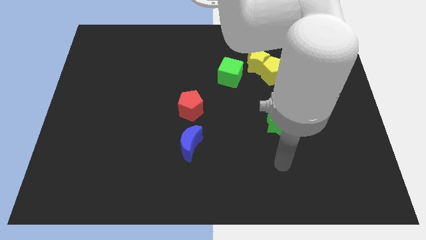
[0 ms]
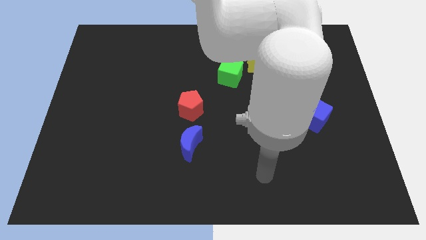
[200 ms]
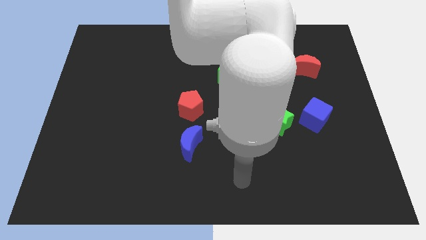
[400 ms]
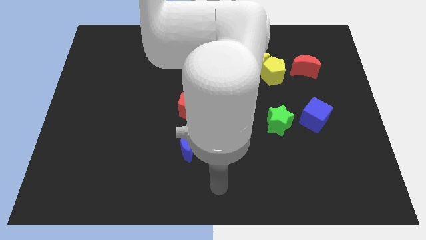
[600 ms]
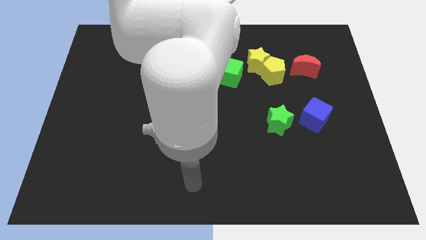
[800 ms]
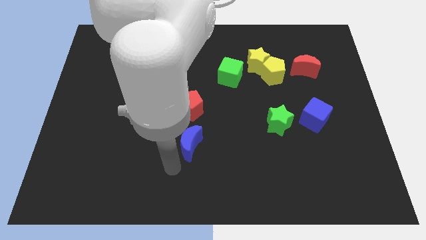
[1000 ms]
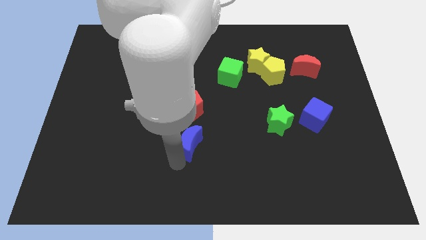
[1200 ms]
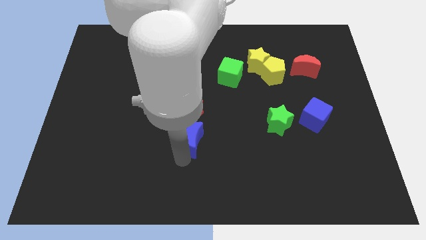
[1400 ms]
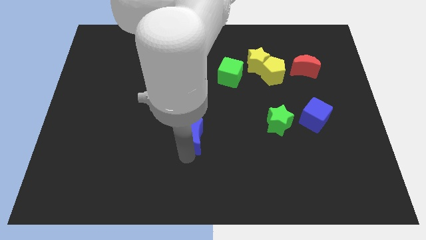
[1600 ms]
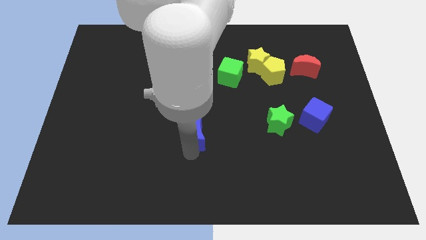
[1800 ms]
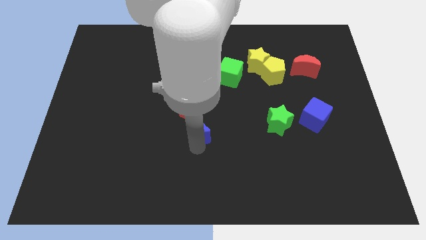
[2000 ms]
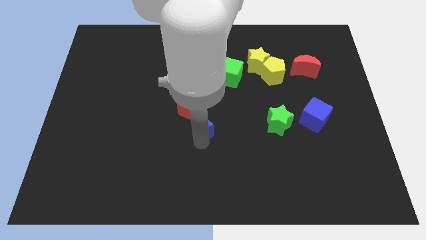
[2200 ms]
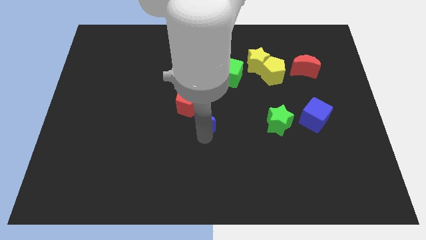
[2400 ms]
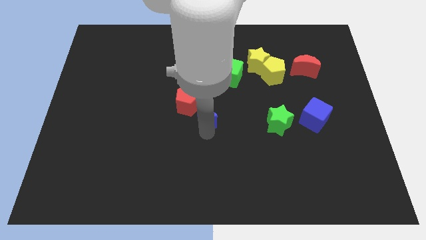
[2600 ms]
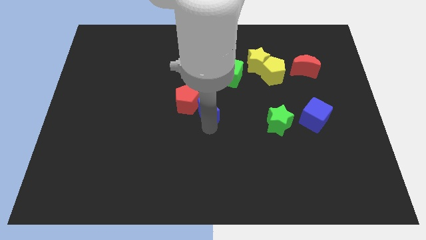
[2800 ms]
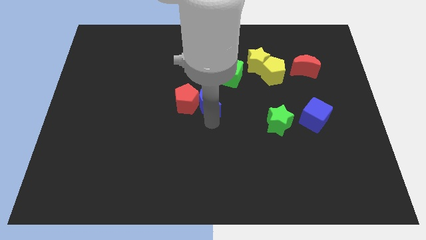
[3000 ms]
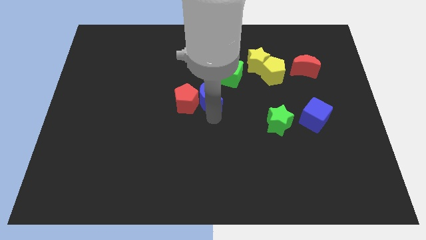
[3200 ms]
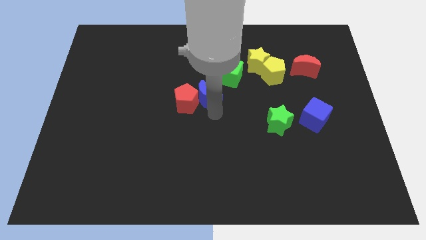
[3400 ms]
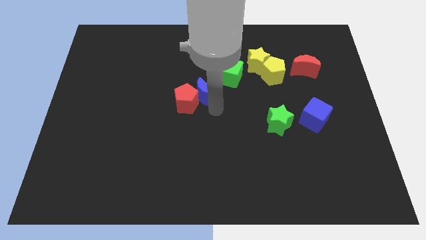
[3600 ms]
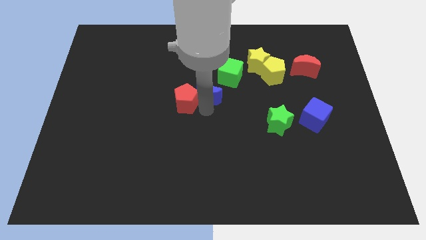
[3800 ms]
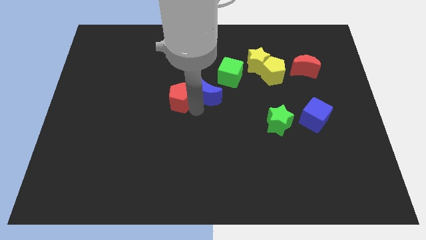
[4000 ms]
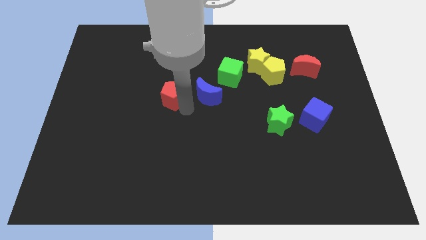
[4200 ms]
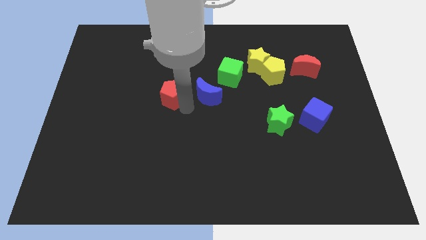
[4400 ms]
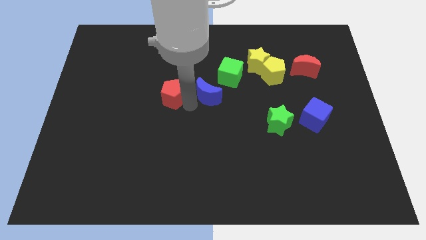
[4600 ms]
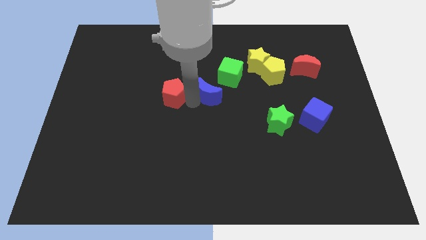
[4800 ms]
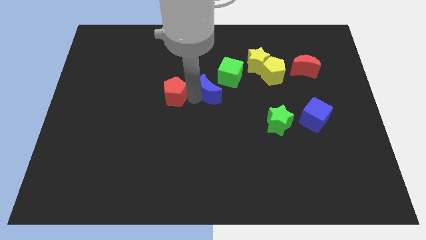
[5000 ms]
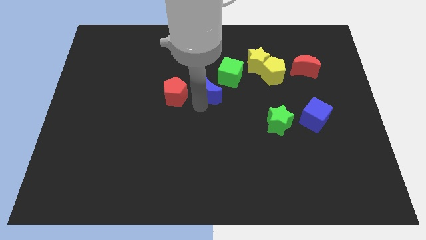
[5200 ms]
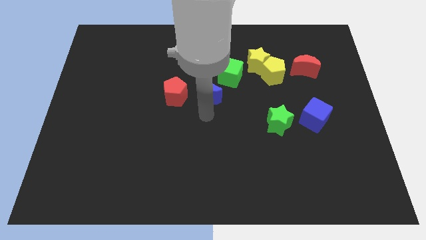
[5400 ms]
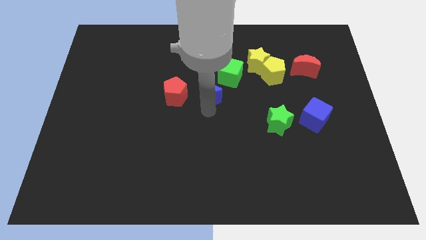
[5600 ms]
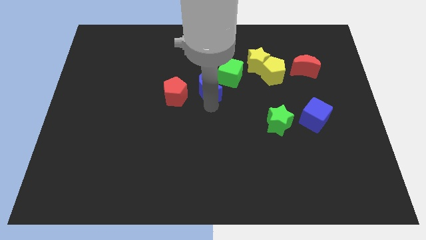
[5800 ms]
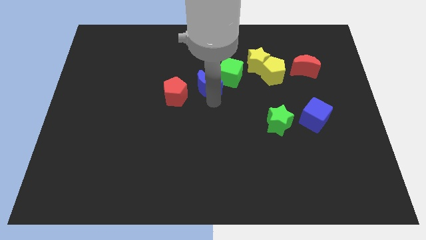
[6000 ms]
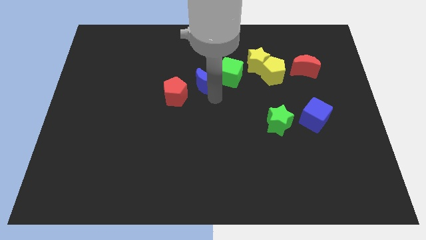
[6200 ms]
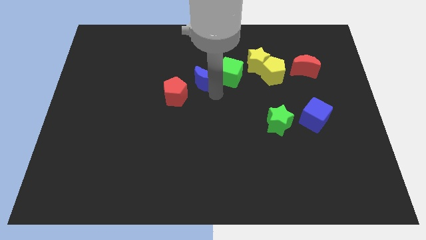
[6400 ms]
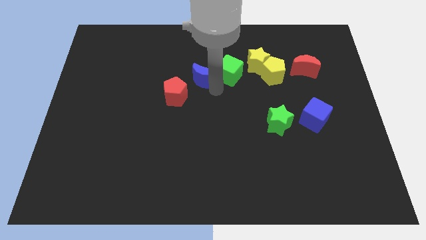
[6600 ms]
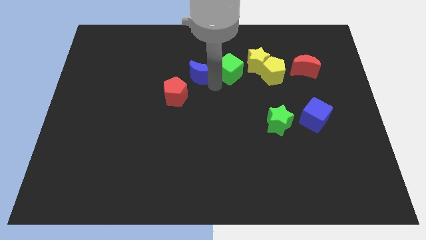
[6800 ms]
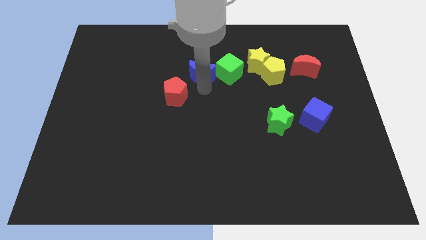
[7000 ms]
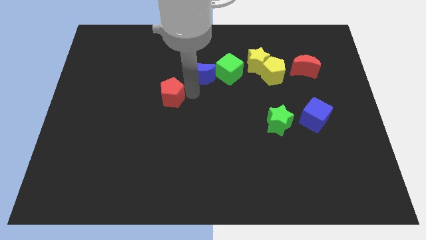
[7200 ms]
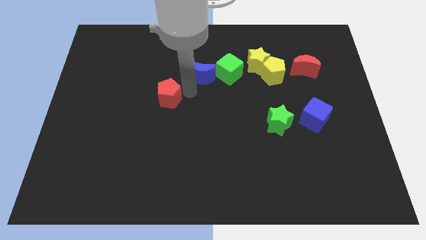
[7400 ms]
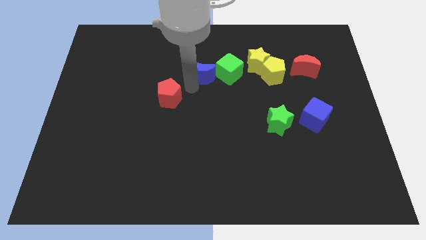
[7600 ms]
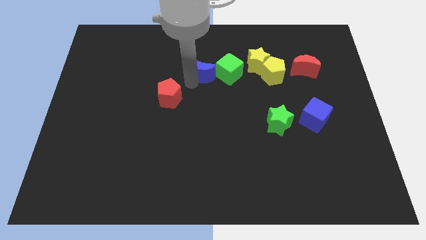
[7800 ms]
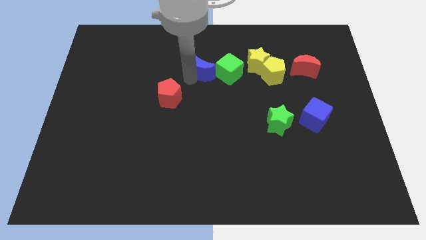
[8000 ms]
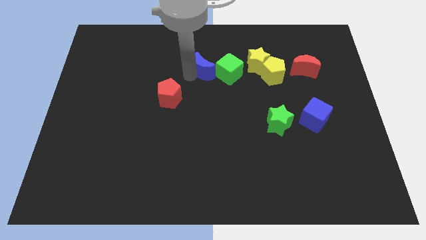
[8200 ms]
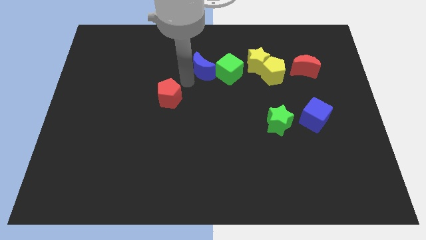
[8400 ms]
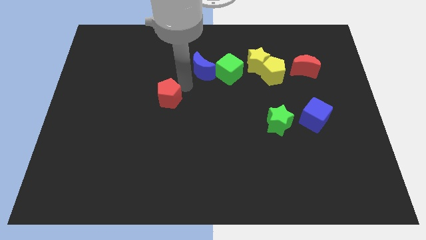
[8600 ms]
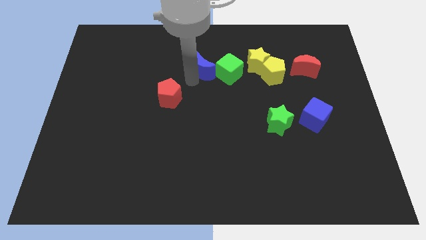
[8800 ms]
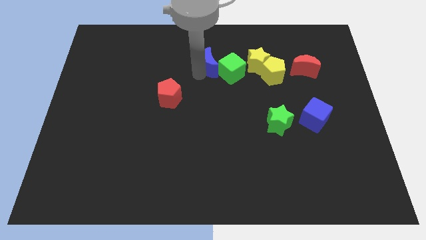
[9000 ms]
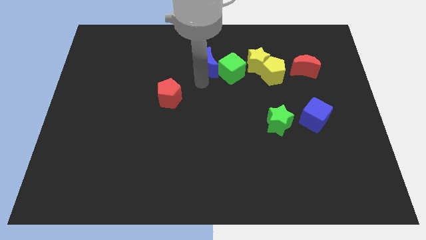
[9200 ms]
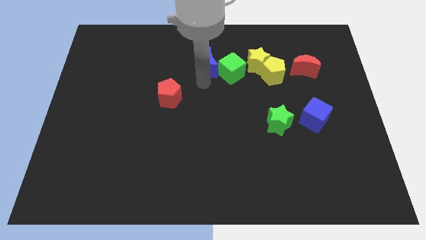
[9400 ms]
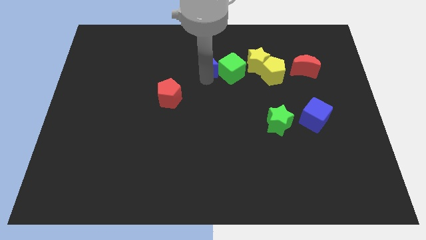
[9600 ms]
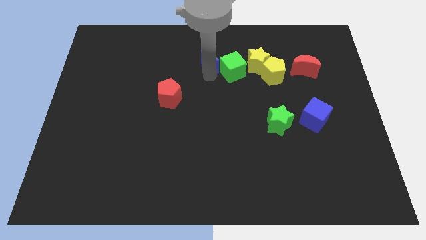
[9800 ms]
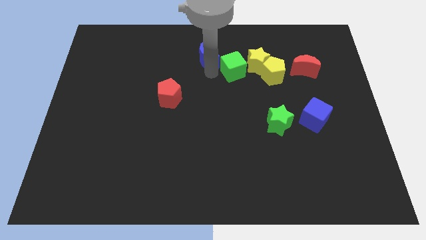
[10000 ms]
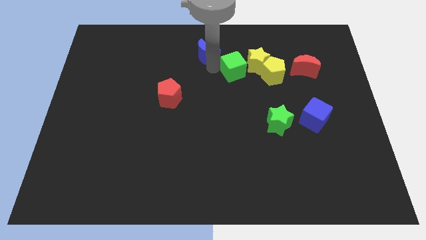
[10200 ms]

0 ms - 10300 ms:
put the blue moon to the towards your base
